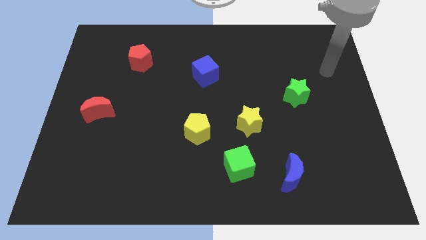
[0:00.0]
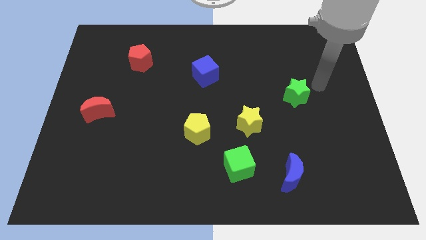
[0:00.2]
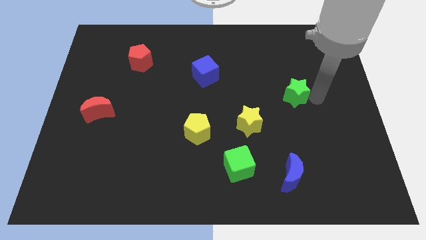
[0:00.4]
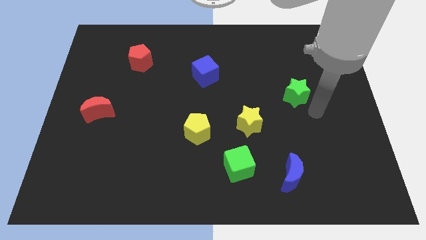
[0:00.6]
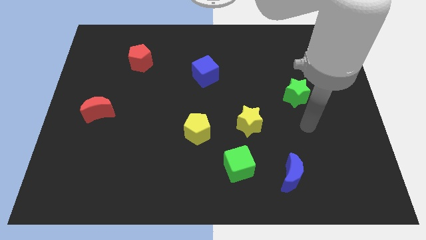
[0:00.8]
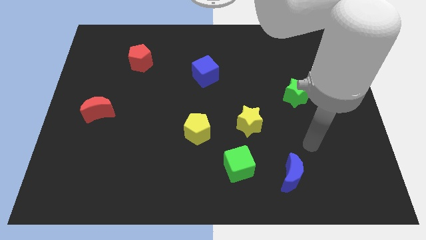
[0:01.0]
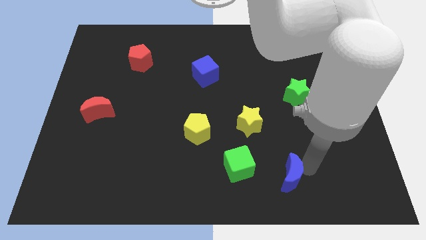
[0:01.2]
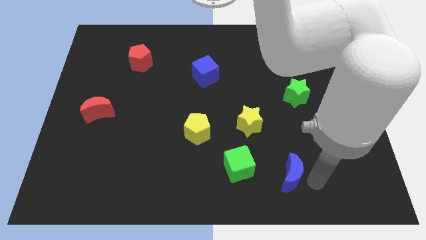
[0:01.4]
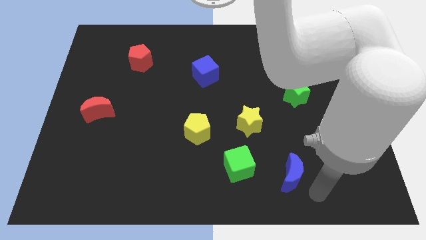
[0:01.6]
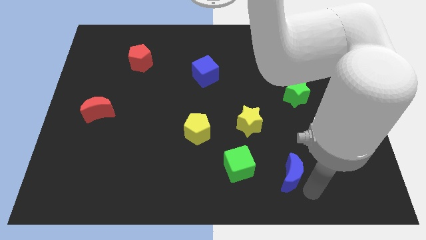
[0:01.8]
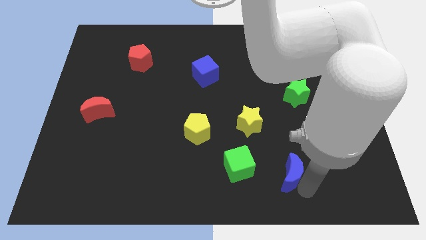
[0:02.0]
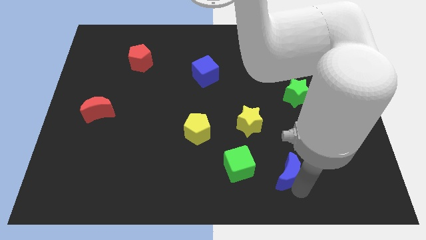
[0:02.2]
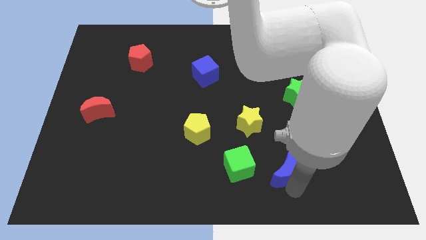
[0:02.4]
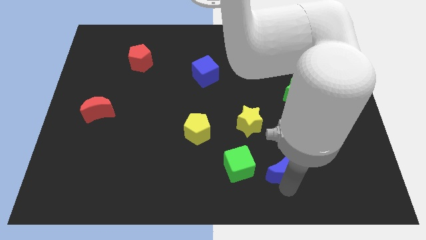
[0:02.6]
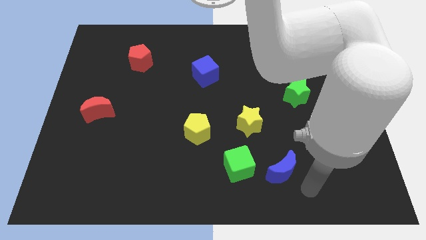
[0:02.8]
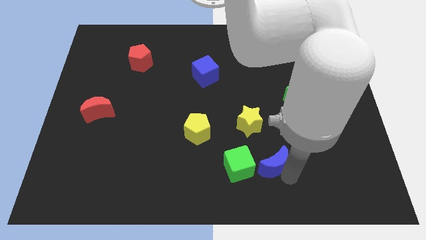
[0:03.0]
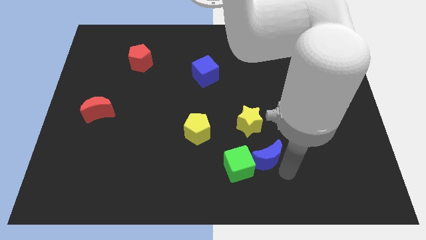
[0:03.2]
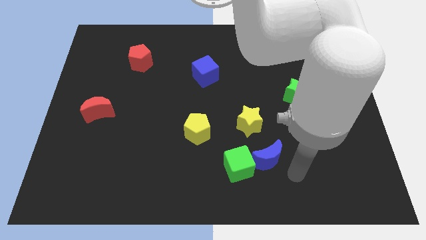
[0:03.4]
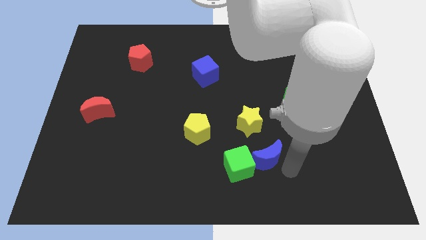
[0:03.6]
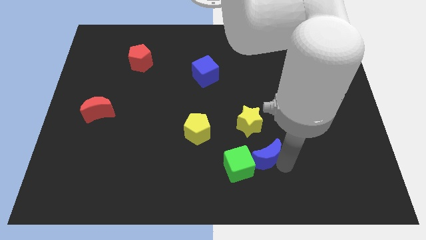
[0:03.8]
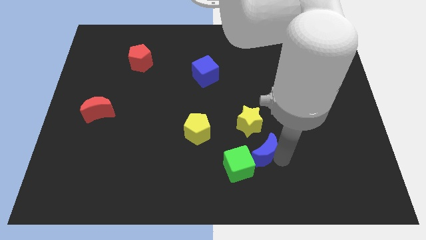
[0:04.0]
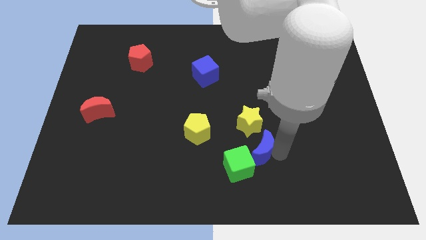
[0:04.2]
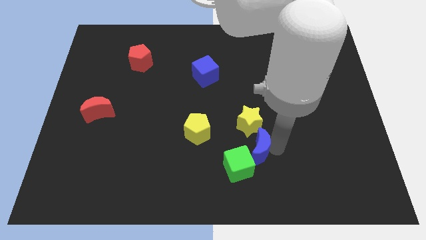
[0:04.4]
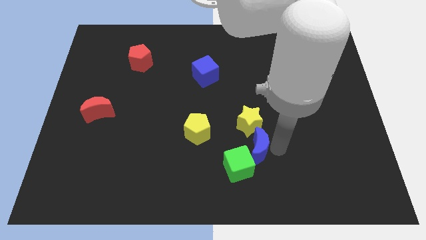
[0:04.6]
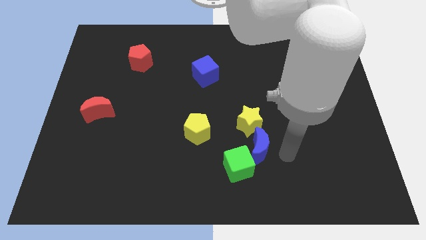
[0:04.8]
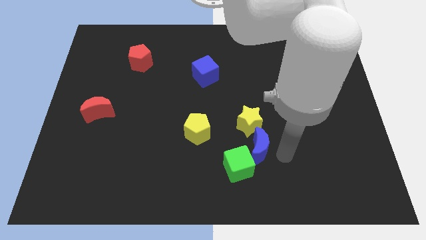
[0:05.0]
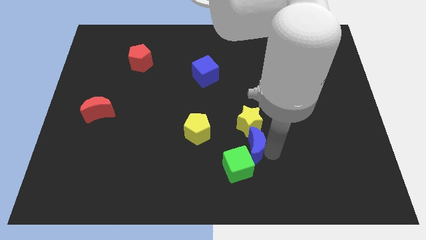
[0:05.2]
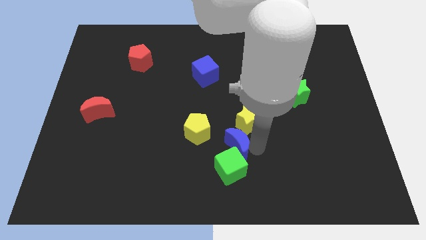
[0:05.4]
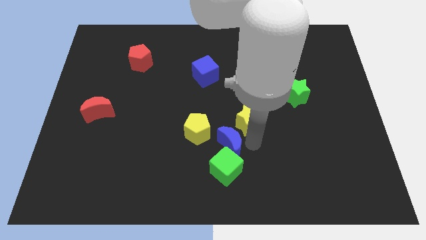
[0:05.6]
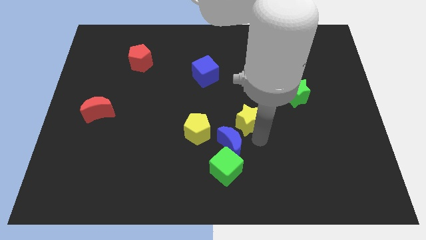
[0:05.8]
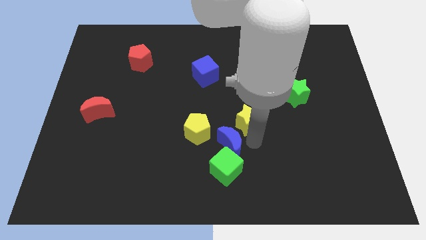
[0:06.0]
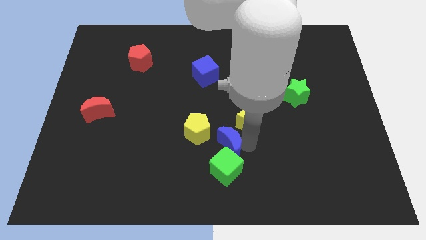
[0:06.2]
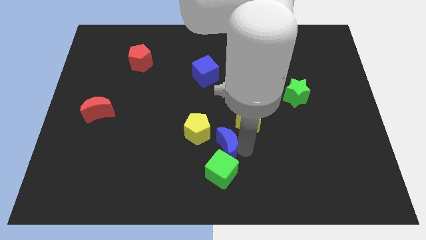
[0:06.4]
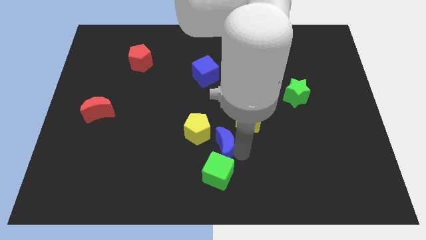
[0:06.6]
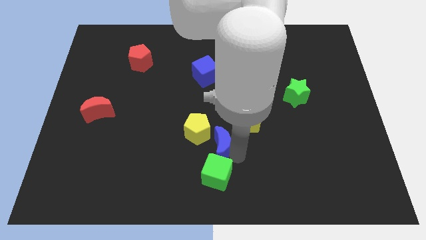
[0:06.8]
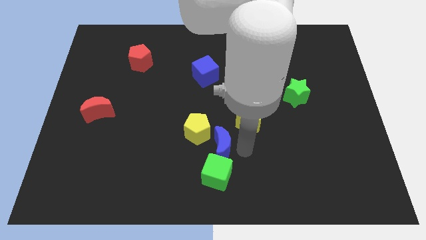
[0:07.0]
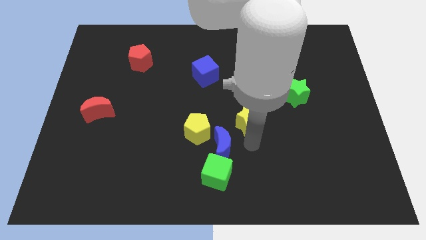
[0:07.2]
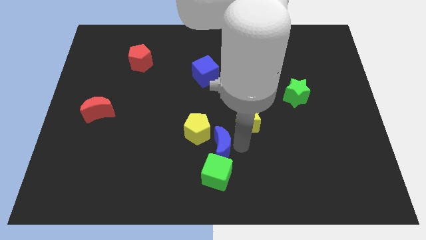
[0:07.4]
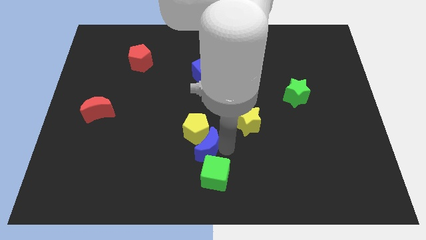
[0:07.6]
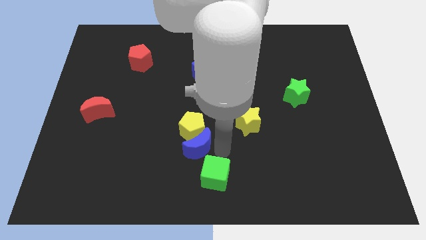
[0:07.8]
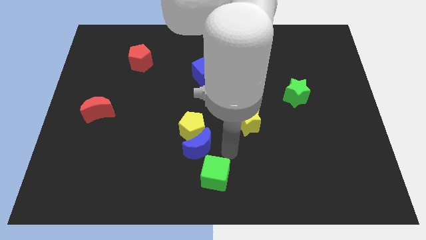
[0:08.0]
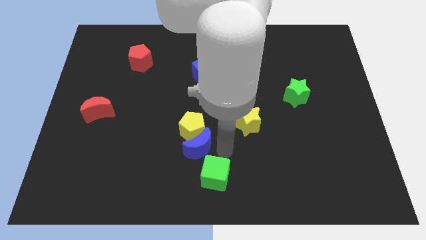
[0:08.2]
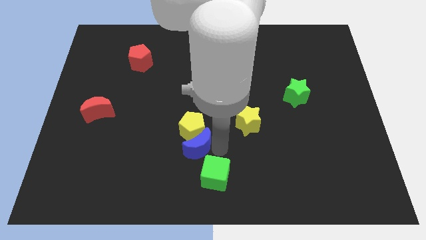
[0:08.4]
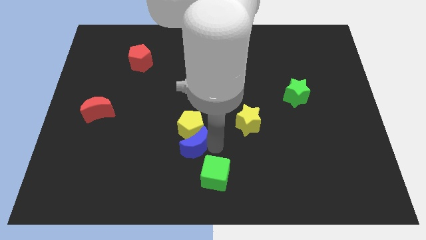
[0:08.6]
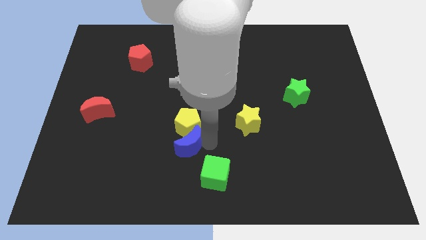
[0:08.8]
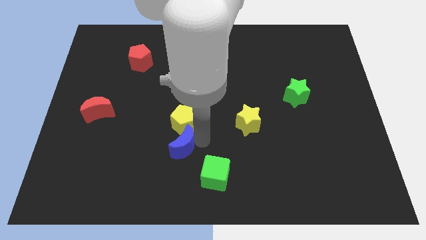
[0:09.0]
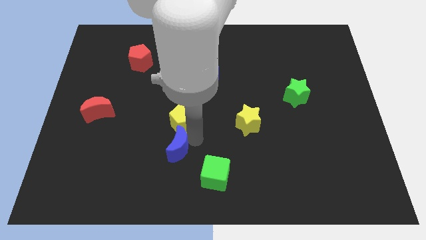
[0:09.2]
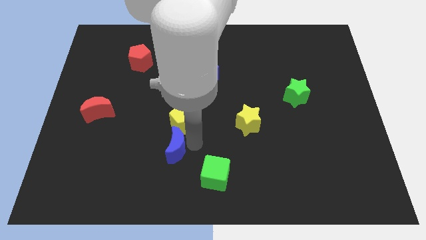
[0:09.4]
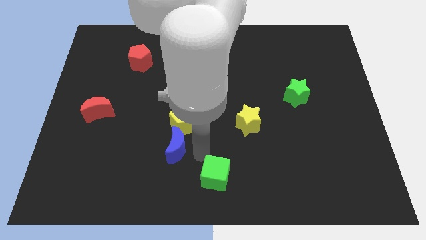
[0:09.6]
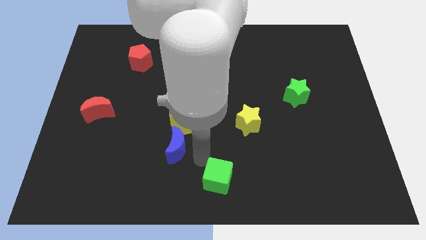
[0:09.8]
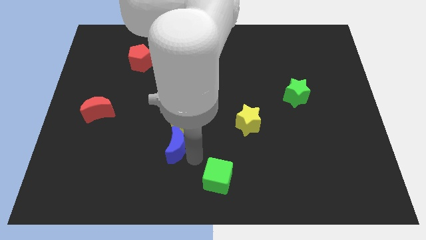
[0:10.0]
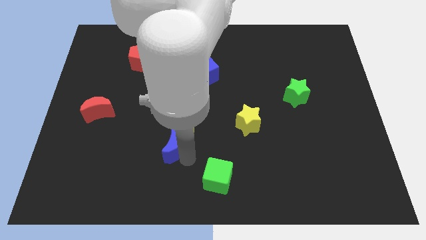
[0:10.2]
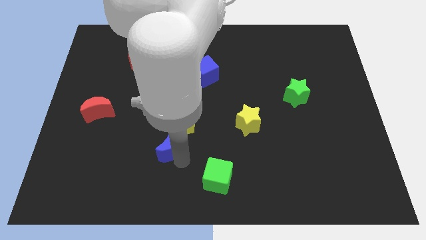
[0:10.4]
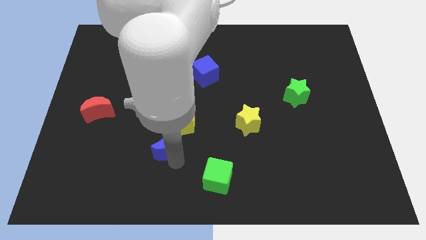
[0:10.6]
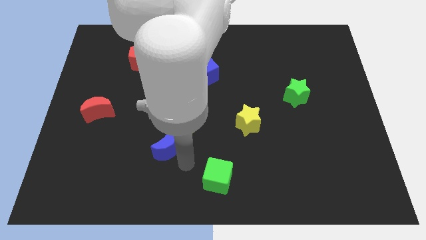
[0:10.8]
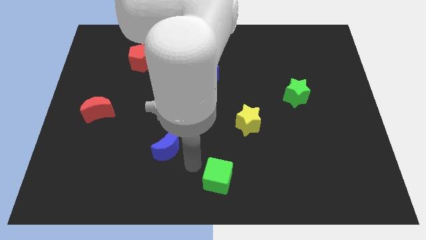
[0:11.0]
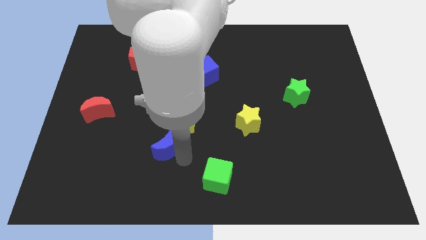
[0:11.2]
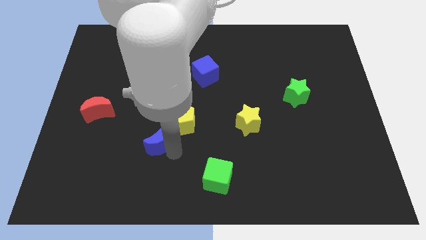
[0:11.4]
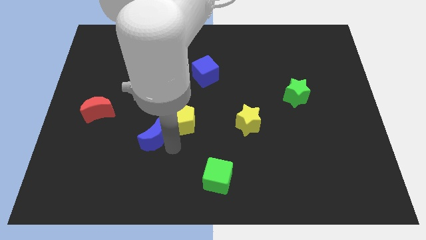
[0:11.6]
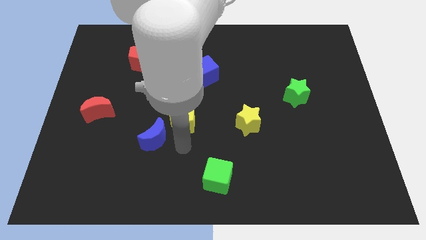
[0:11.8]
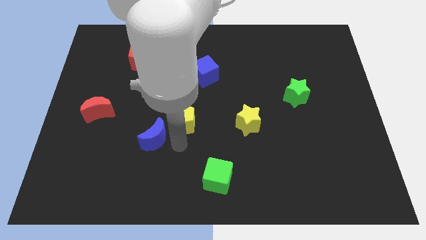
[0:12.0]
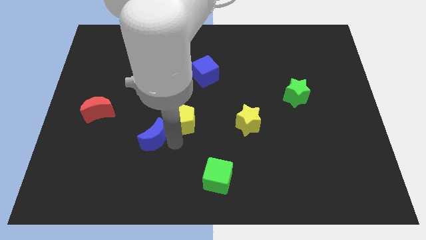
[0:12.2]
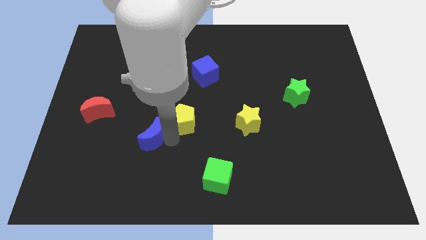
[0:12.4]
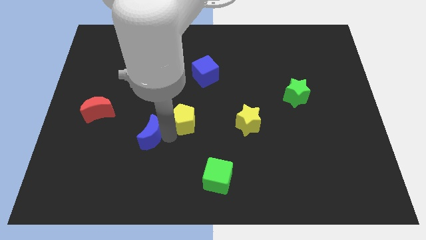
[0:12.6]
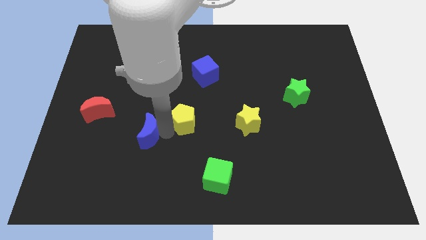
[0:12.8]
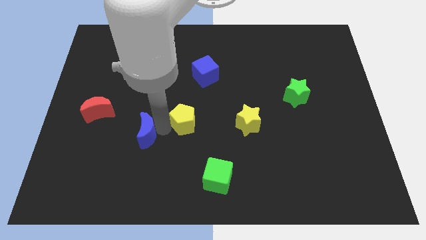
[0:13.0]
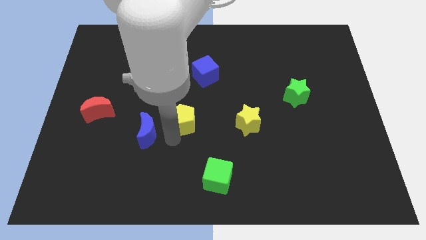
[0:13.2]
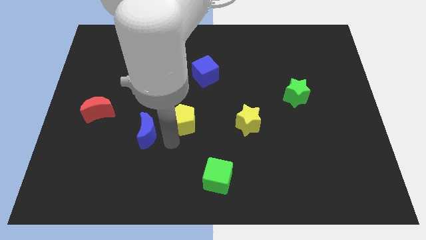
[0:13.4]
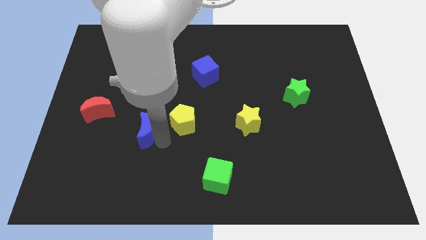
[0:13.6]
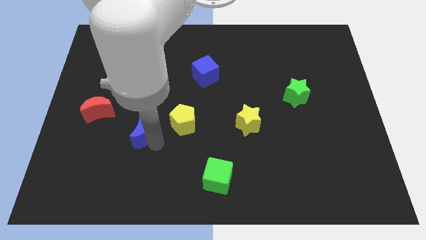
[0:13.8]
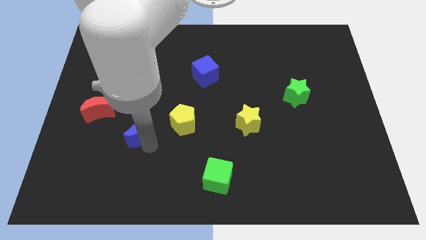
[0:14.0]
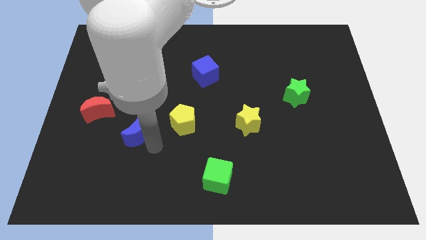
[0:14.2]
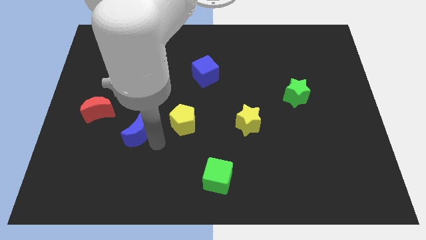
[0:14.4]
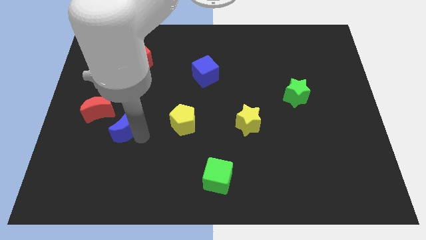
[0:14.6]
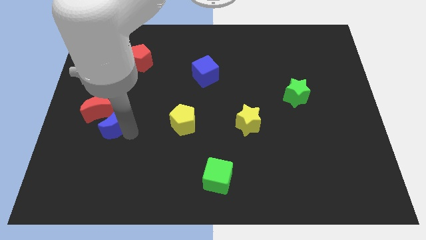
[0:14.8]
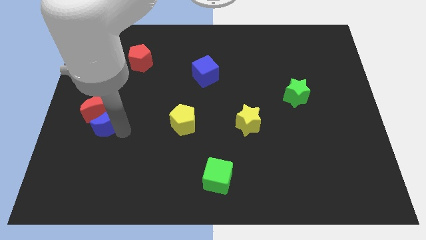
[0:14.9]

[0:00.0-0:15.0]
slide the blue moon next to the red moon
